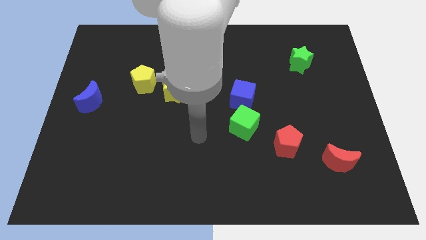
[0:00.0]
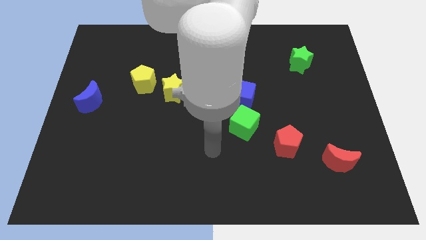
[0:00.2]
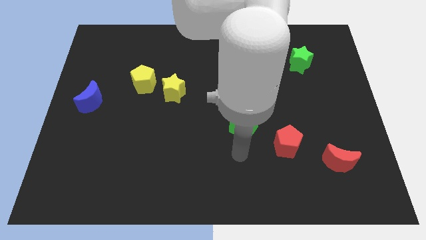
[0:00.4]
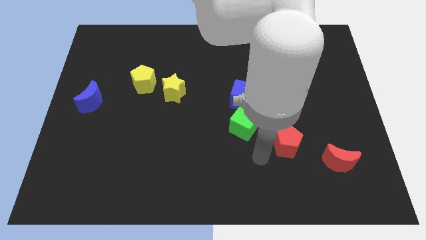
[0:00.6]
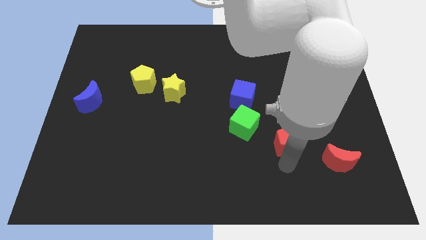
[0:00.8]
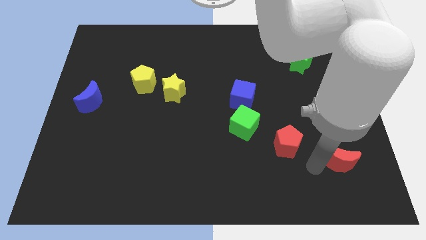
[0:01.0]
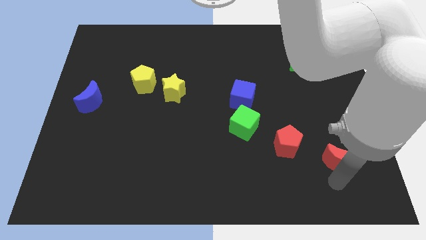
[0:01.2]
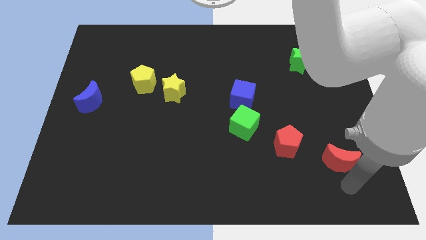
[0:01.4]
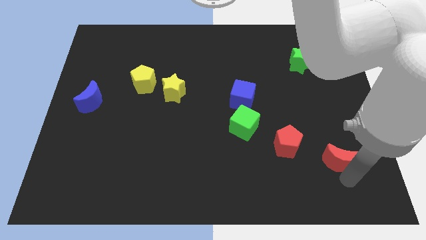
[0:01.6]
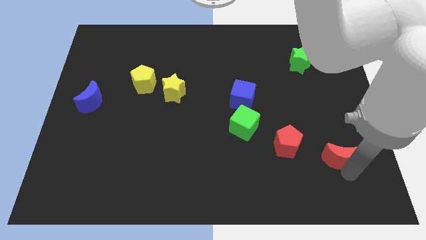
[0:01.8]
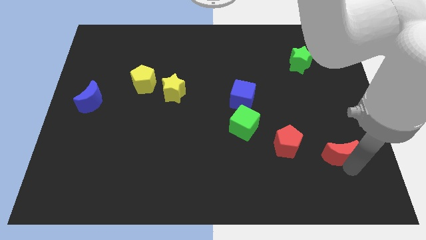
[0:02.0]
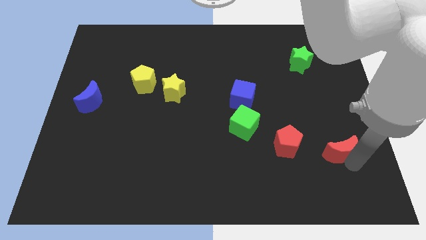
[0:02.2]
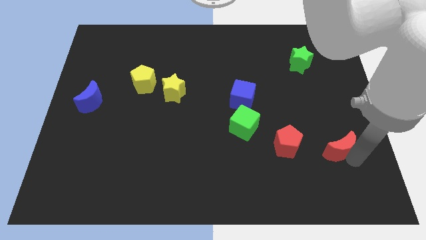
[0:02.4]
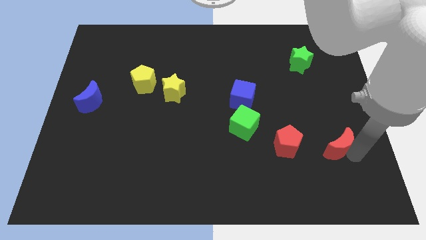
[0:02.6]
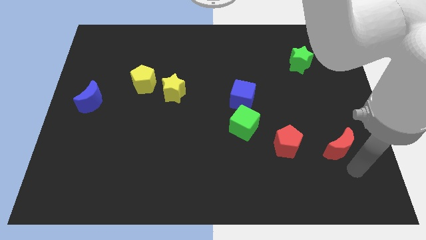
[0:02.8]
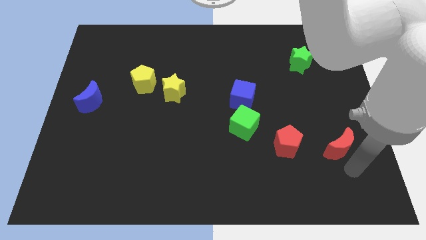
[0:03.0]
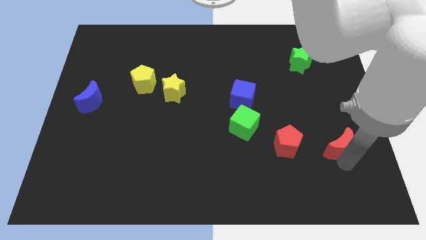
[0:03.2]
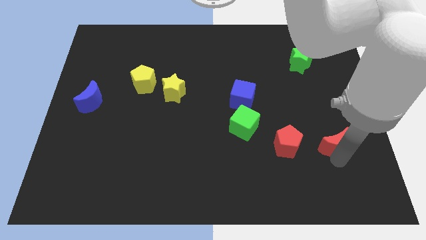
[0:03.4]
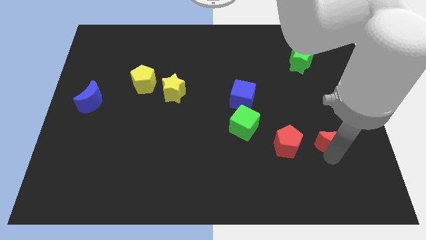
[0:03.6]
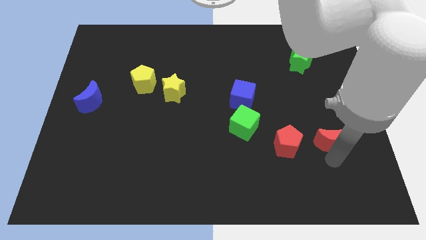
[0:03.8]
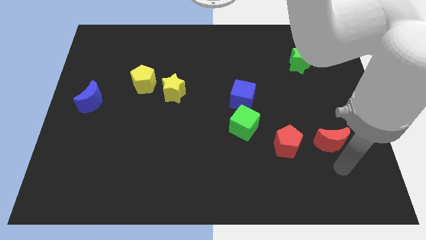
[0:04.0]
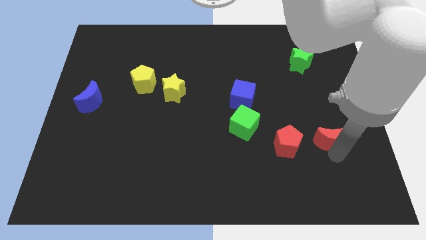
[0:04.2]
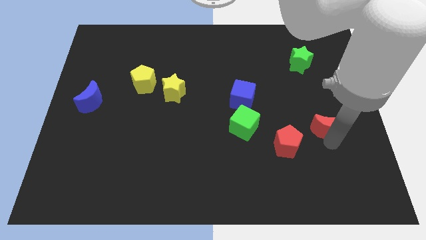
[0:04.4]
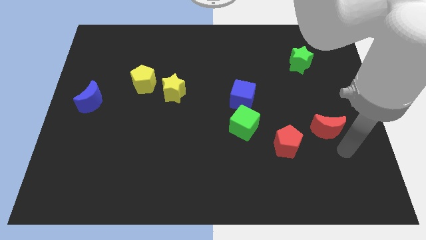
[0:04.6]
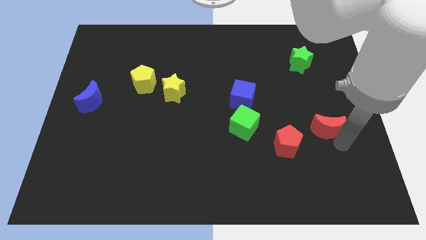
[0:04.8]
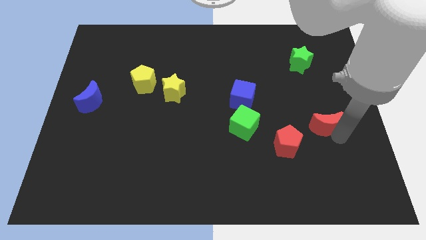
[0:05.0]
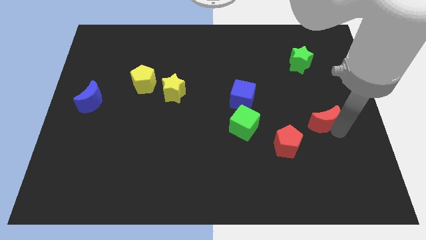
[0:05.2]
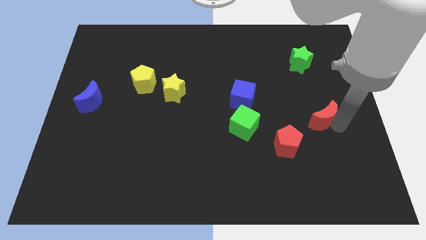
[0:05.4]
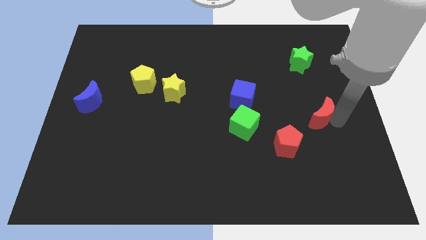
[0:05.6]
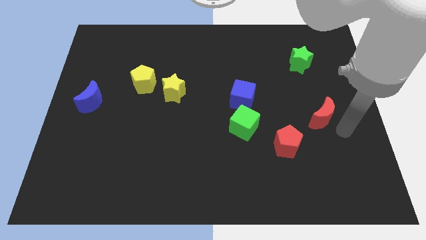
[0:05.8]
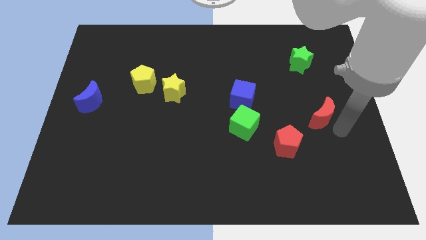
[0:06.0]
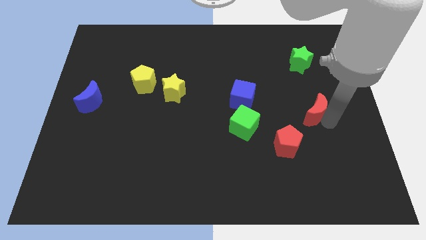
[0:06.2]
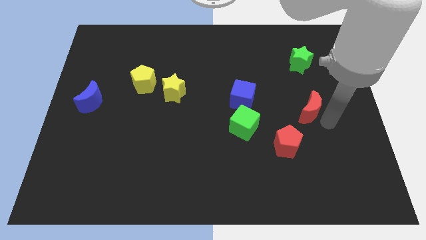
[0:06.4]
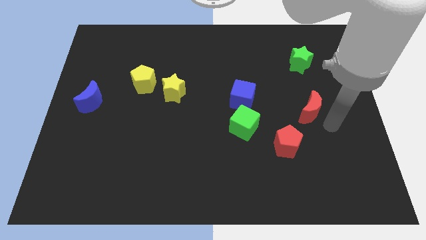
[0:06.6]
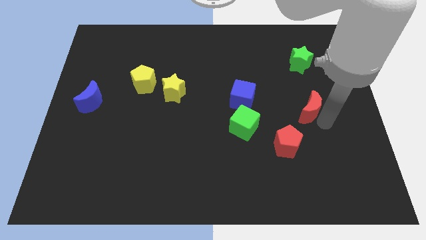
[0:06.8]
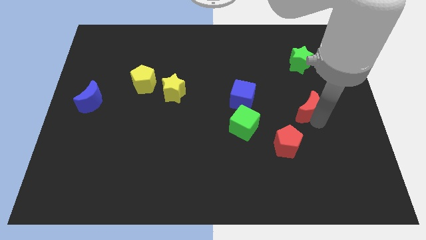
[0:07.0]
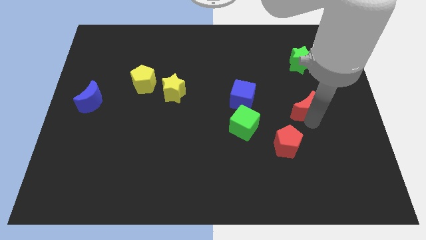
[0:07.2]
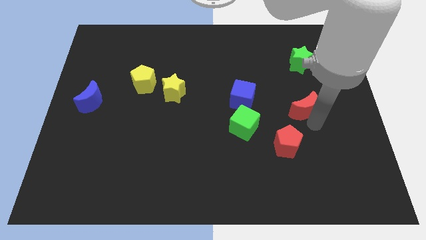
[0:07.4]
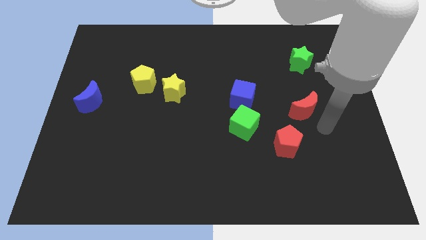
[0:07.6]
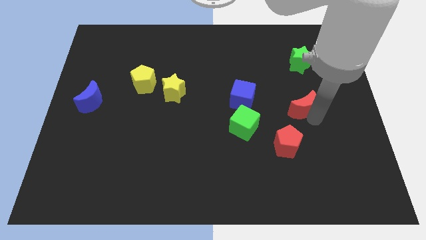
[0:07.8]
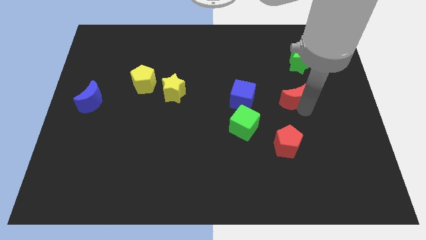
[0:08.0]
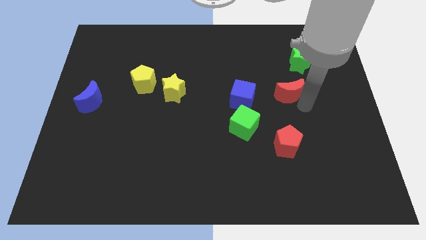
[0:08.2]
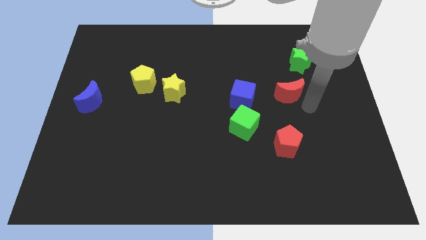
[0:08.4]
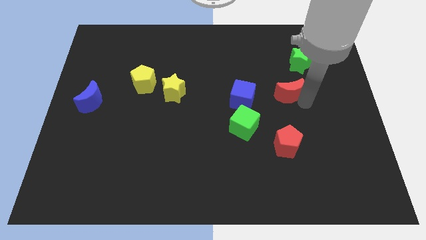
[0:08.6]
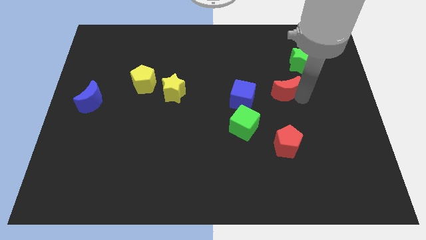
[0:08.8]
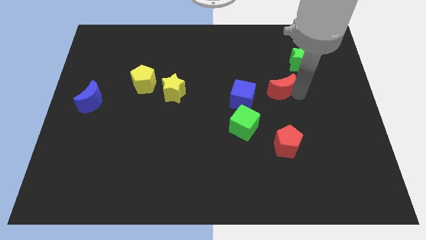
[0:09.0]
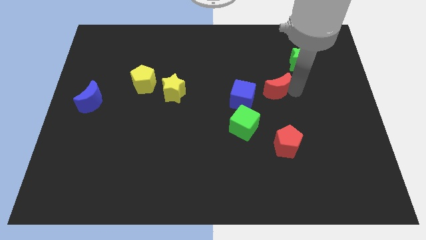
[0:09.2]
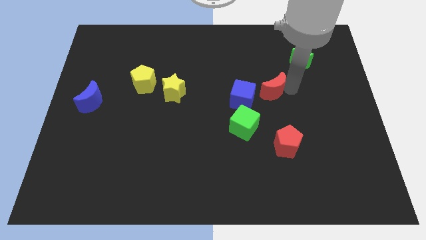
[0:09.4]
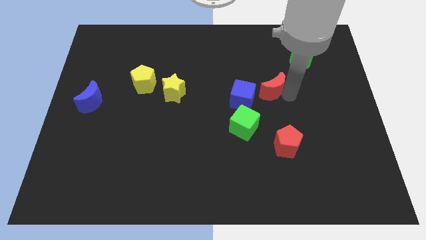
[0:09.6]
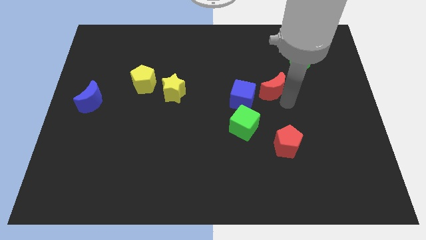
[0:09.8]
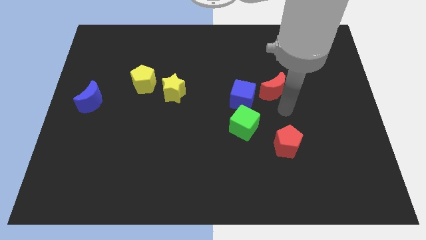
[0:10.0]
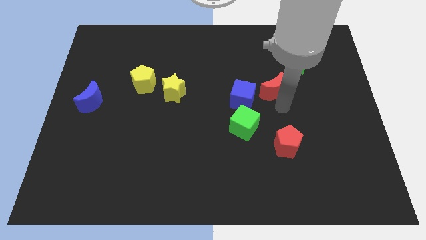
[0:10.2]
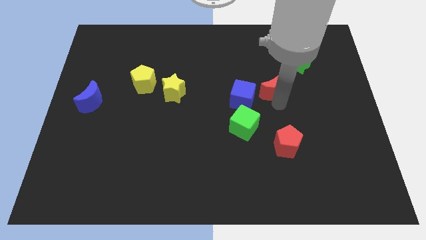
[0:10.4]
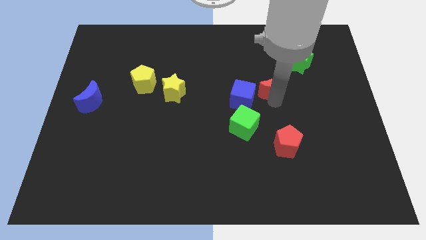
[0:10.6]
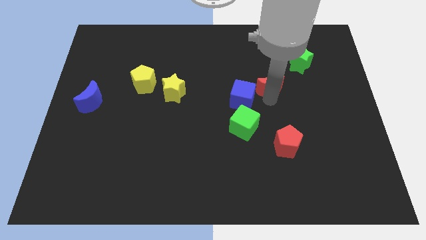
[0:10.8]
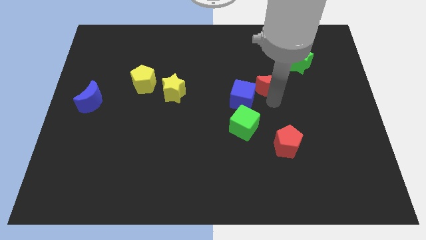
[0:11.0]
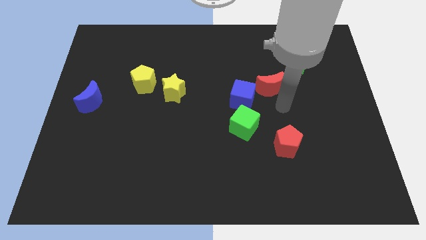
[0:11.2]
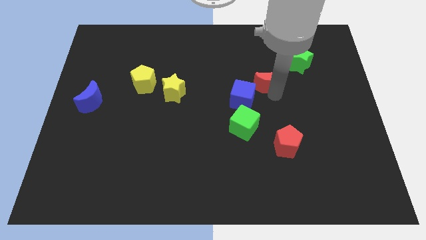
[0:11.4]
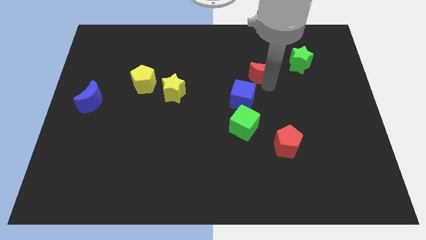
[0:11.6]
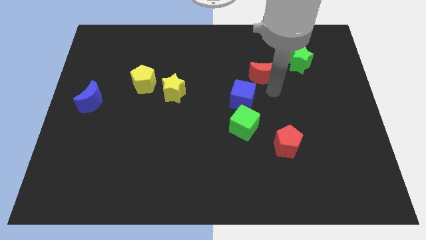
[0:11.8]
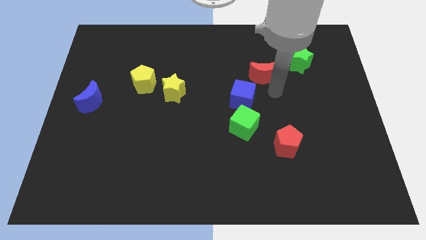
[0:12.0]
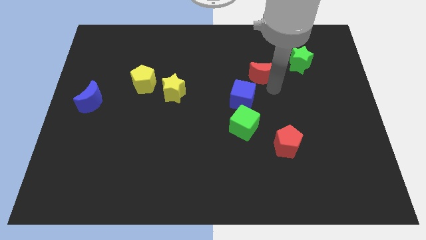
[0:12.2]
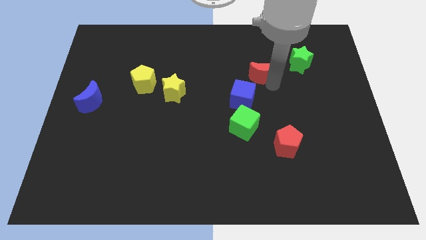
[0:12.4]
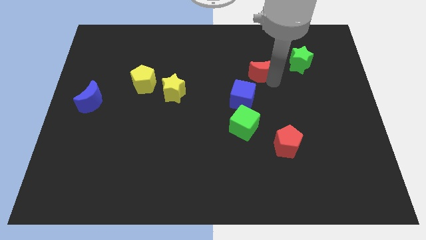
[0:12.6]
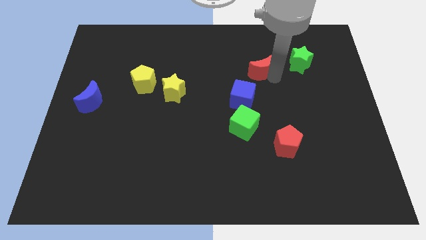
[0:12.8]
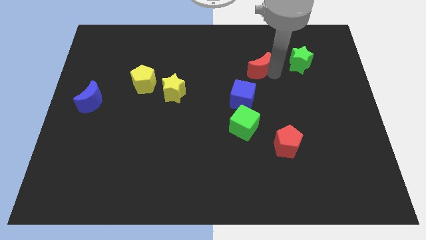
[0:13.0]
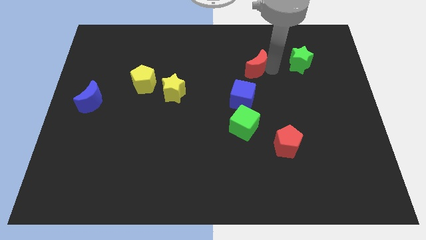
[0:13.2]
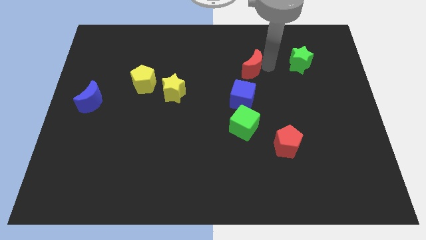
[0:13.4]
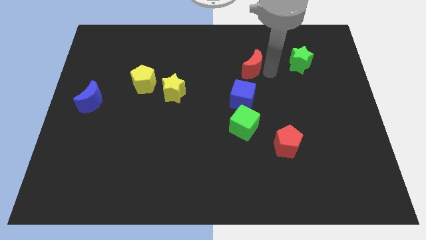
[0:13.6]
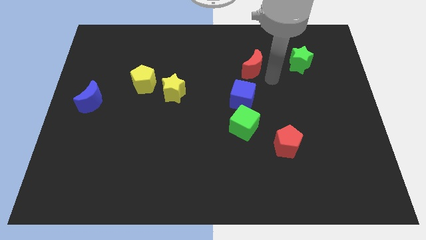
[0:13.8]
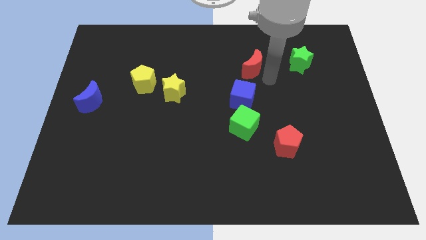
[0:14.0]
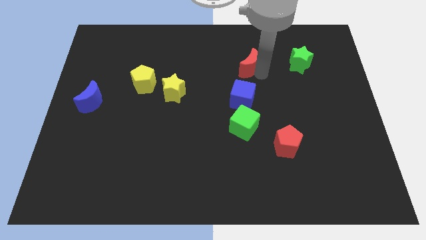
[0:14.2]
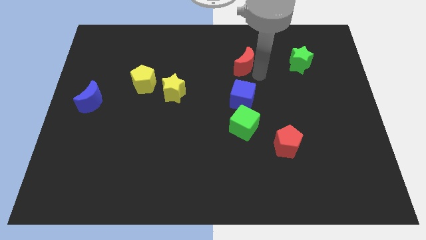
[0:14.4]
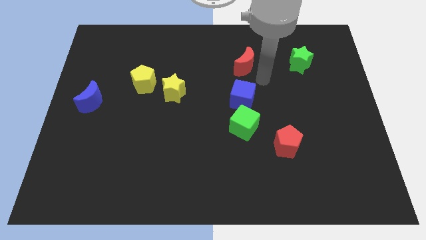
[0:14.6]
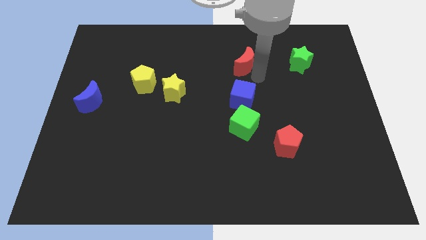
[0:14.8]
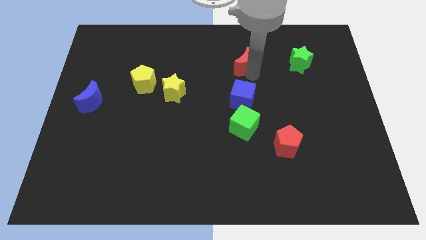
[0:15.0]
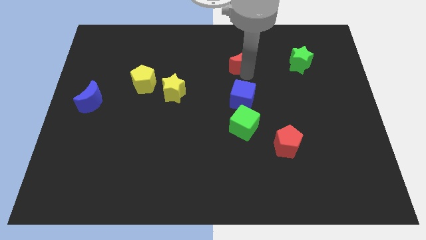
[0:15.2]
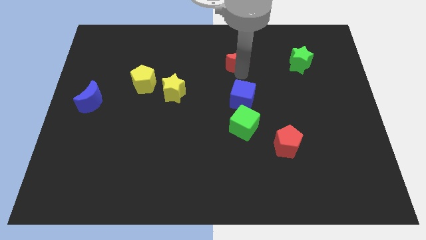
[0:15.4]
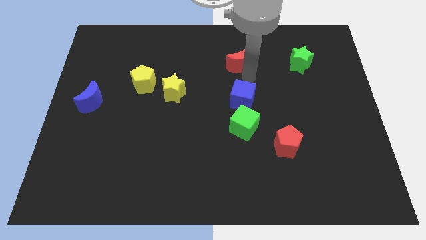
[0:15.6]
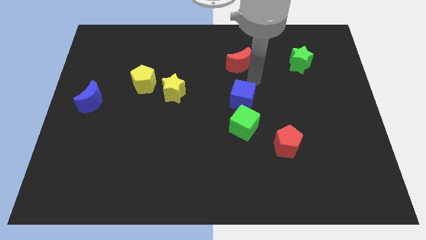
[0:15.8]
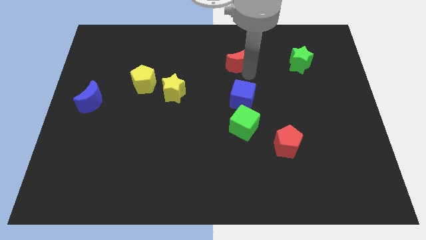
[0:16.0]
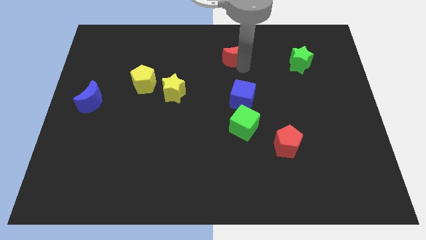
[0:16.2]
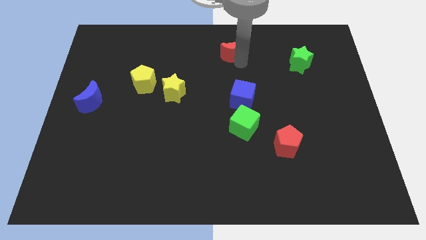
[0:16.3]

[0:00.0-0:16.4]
put the red moon to the top
